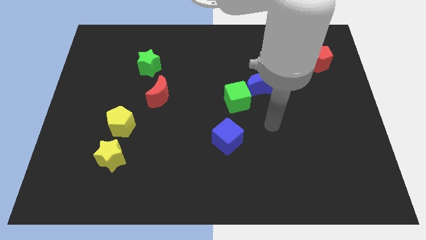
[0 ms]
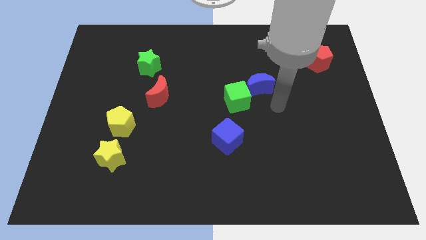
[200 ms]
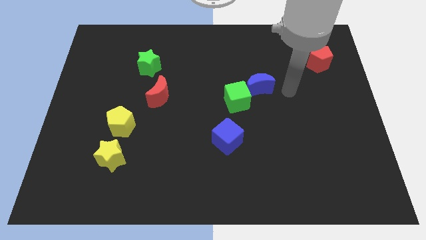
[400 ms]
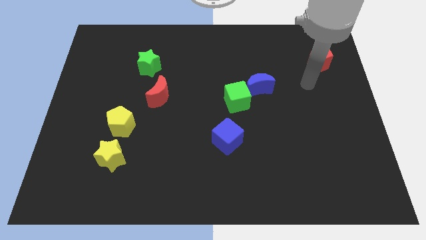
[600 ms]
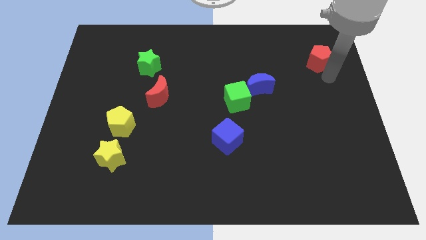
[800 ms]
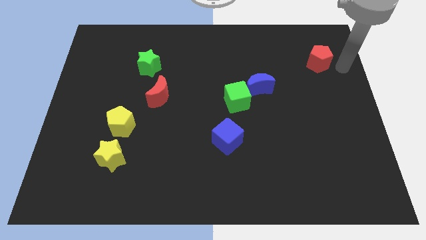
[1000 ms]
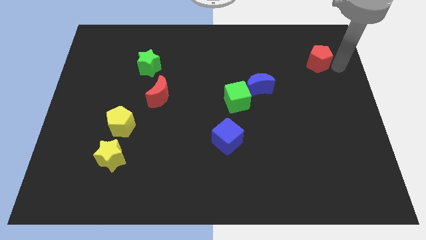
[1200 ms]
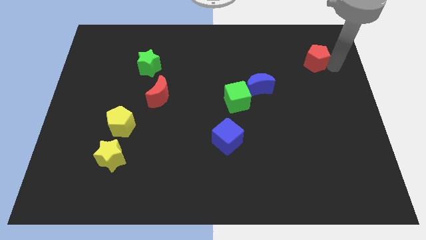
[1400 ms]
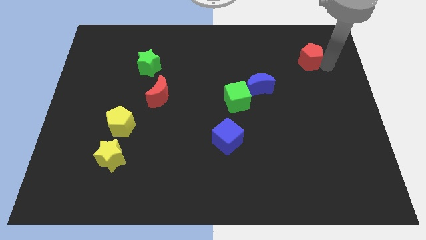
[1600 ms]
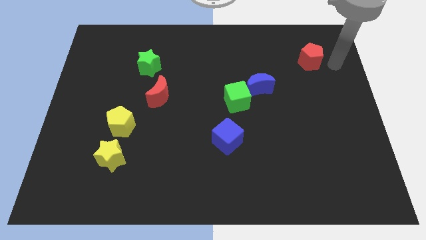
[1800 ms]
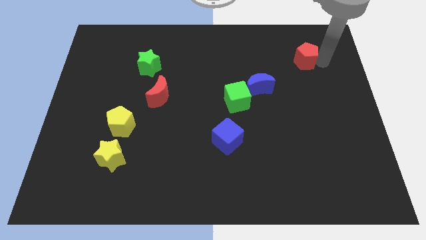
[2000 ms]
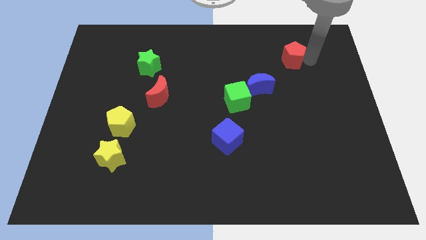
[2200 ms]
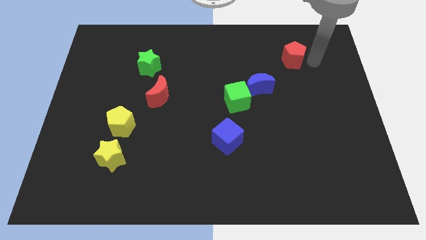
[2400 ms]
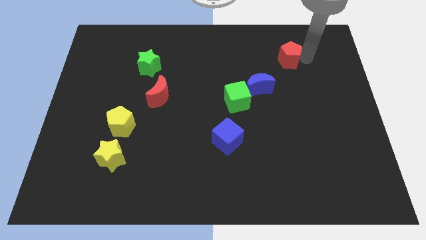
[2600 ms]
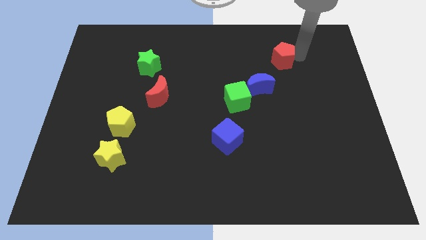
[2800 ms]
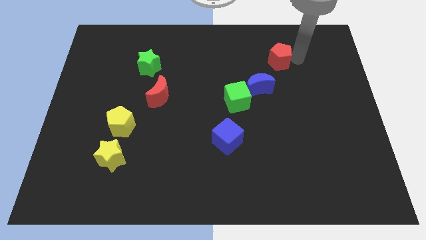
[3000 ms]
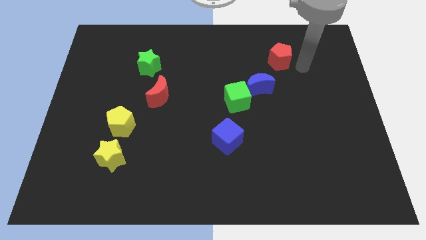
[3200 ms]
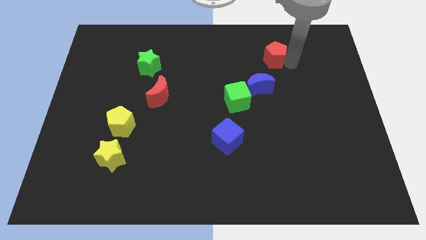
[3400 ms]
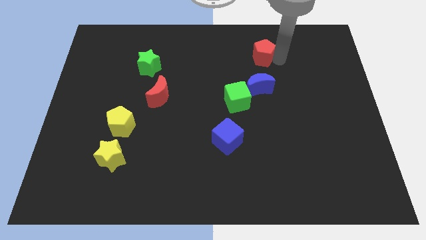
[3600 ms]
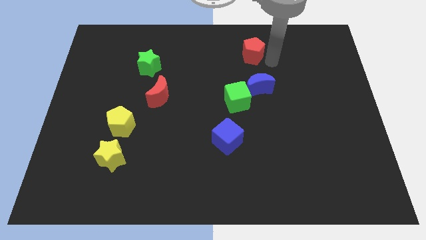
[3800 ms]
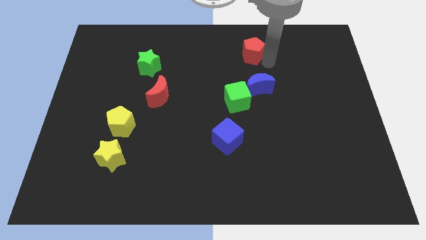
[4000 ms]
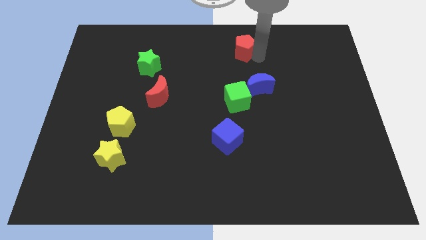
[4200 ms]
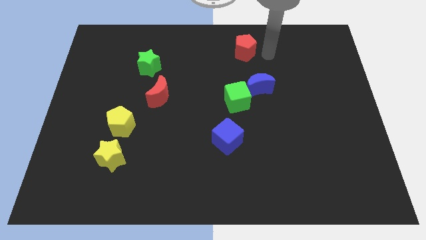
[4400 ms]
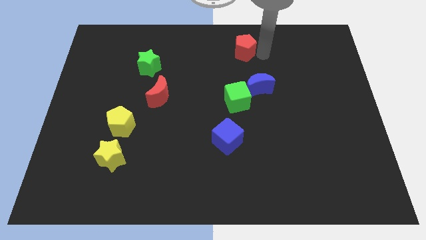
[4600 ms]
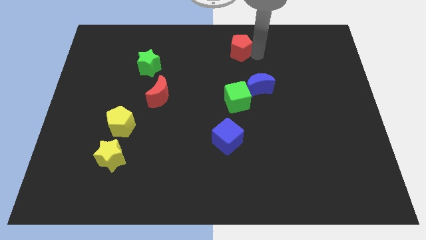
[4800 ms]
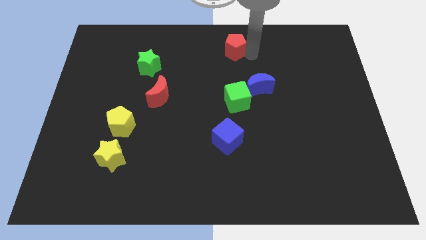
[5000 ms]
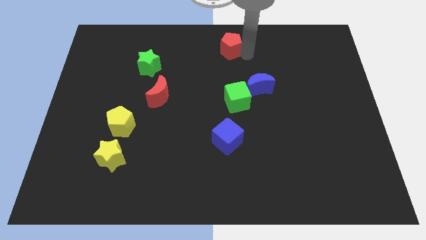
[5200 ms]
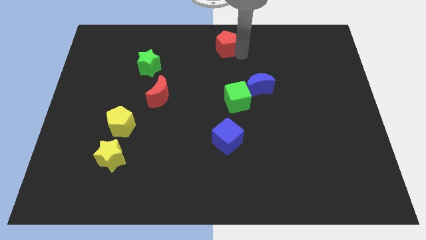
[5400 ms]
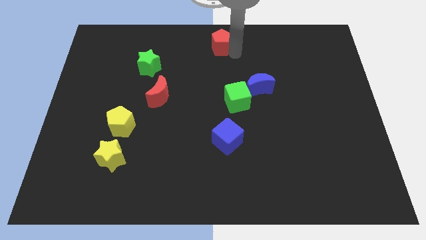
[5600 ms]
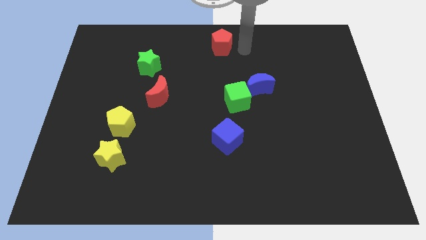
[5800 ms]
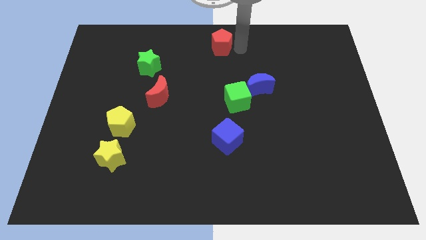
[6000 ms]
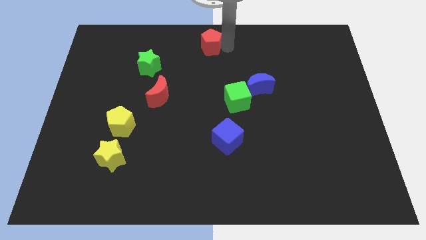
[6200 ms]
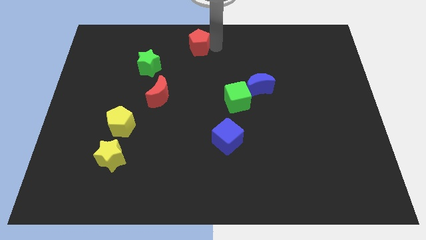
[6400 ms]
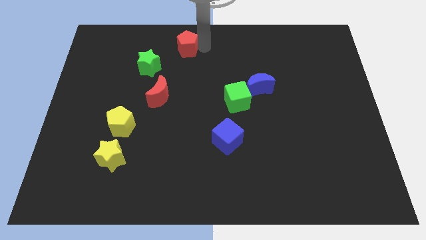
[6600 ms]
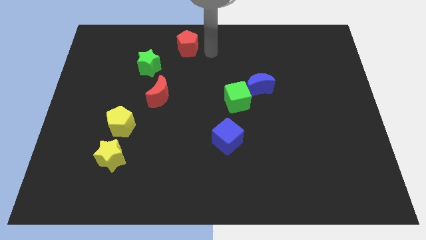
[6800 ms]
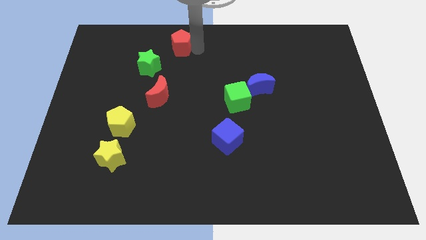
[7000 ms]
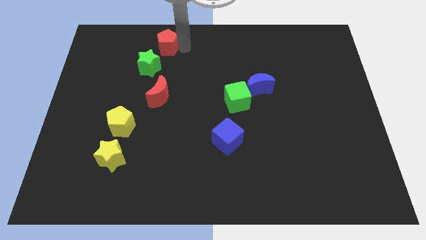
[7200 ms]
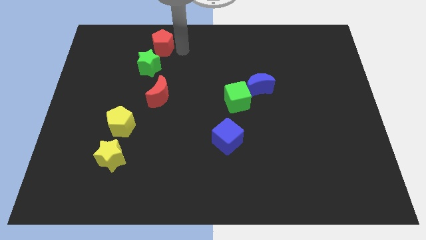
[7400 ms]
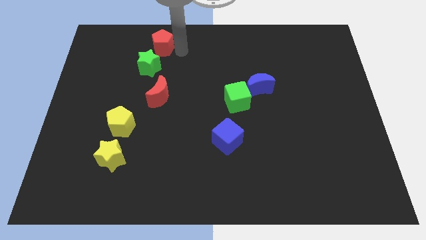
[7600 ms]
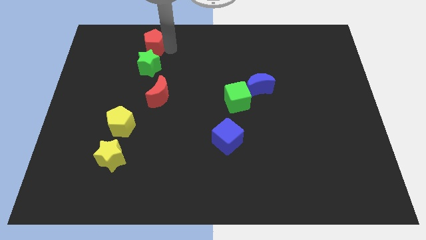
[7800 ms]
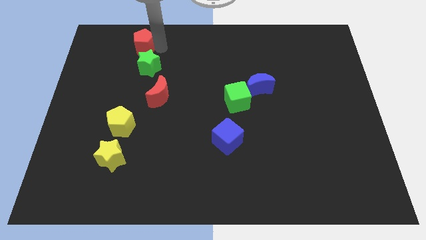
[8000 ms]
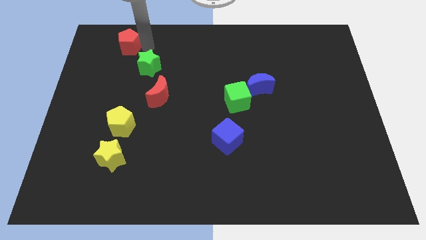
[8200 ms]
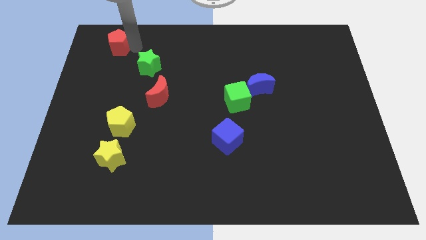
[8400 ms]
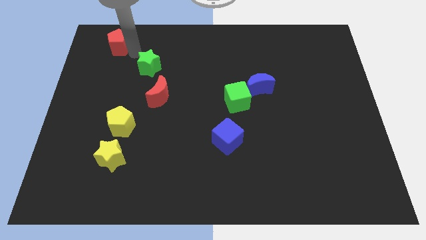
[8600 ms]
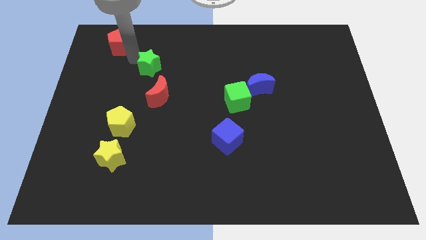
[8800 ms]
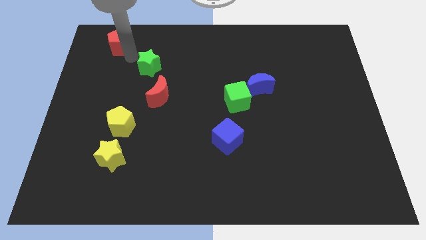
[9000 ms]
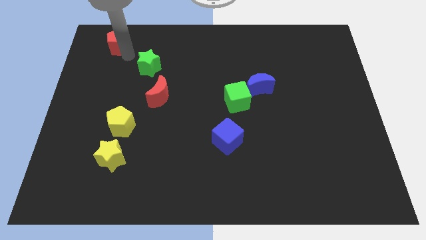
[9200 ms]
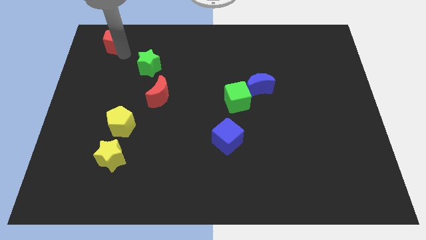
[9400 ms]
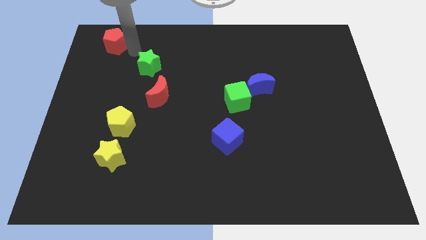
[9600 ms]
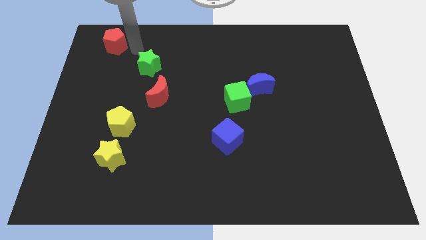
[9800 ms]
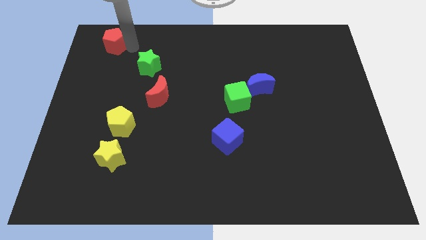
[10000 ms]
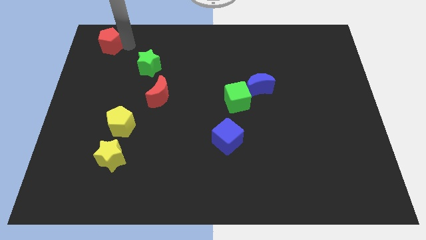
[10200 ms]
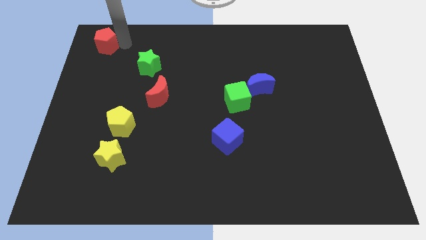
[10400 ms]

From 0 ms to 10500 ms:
put the red pentagon to the top left
